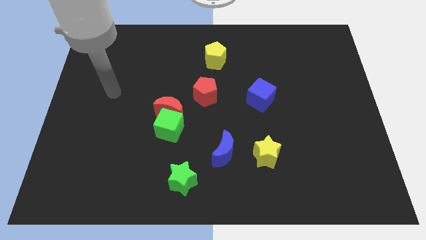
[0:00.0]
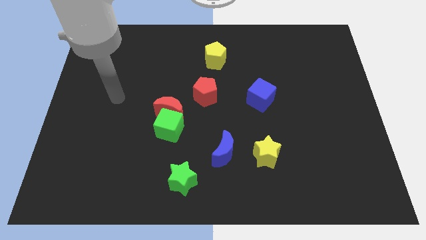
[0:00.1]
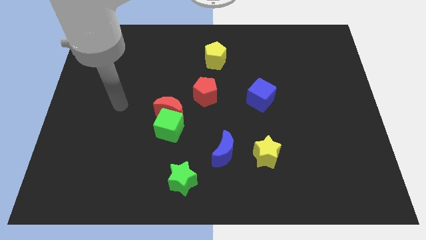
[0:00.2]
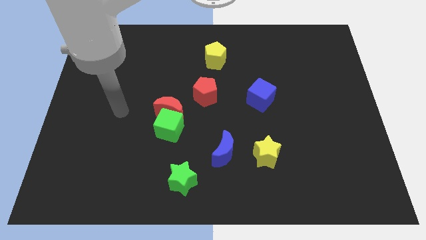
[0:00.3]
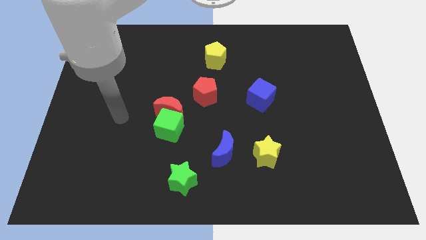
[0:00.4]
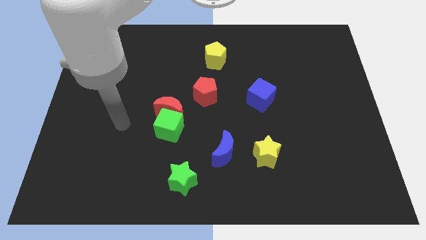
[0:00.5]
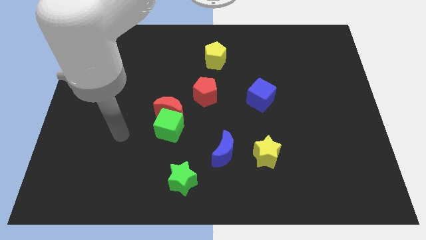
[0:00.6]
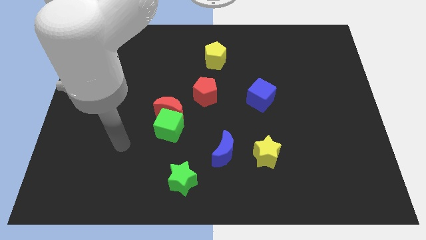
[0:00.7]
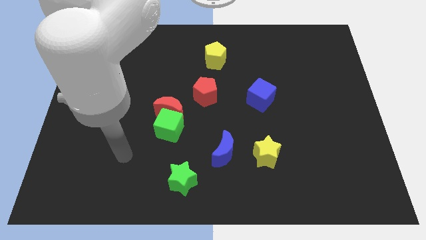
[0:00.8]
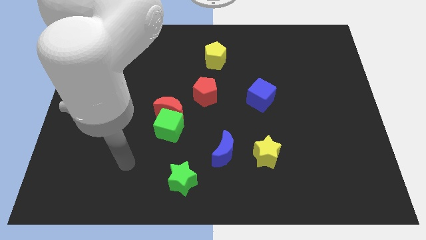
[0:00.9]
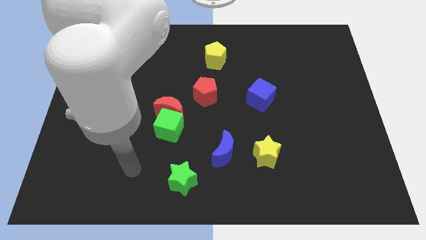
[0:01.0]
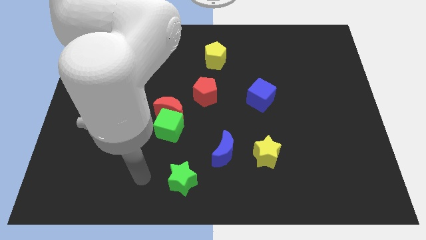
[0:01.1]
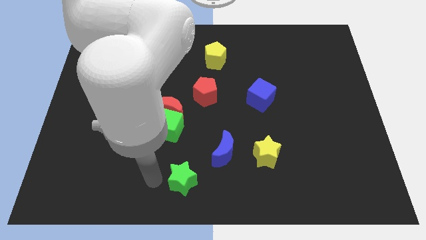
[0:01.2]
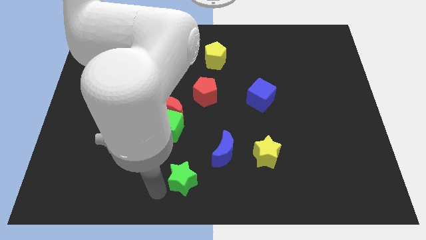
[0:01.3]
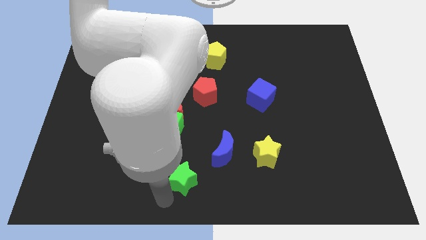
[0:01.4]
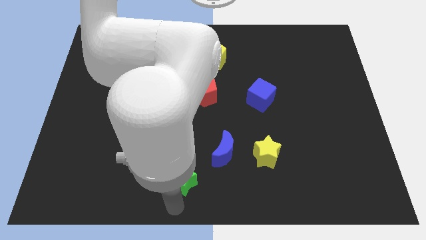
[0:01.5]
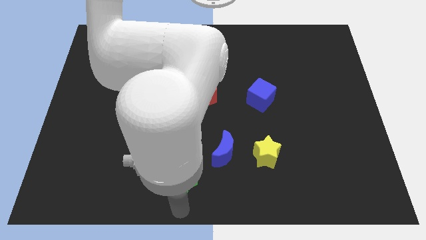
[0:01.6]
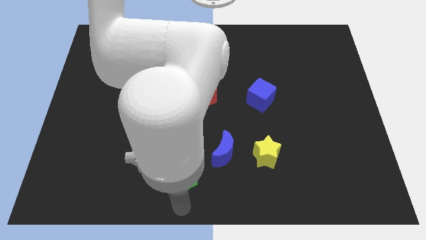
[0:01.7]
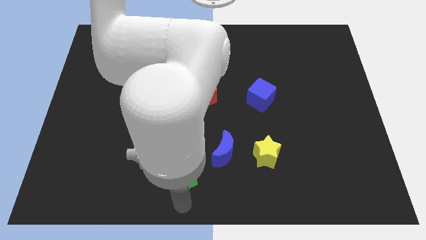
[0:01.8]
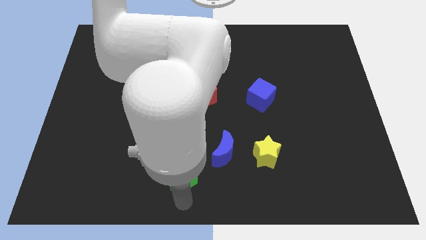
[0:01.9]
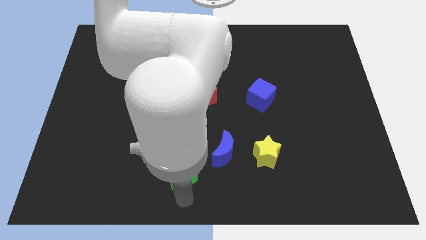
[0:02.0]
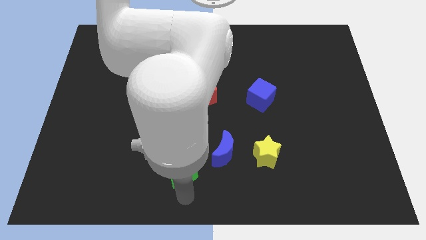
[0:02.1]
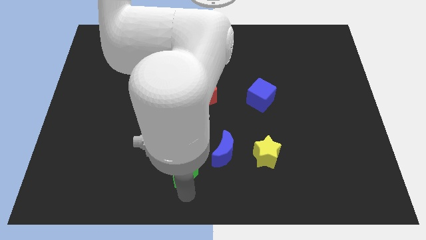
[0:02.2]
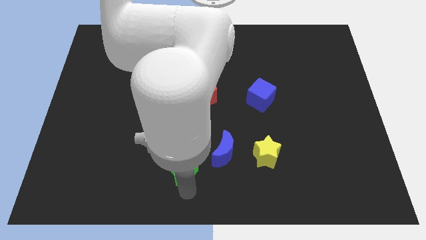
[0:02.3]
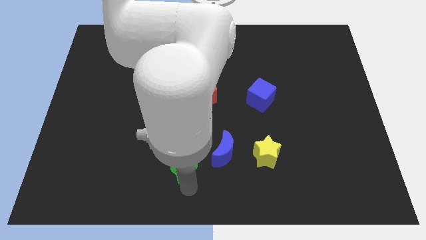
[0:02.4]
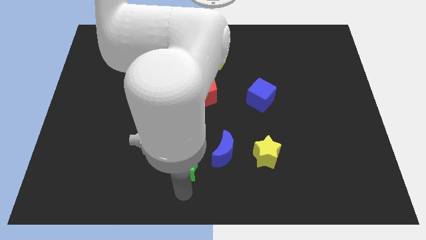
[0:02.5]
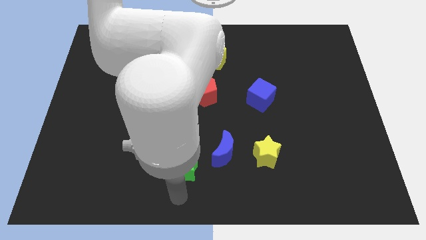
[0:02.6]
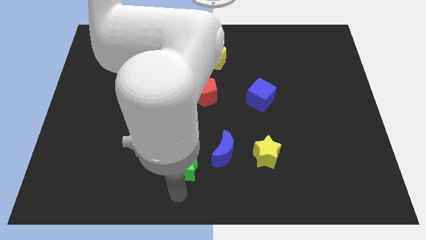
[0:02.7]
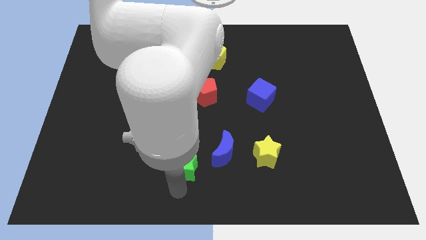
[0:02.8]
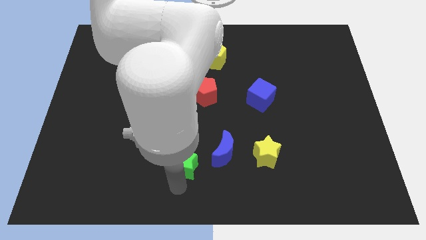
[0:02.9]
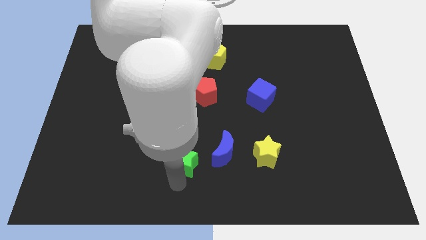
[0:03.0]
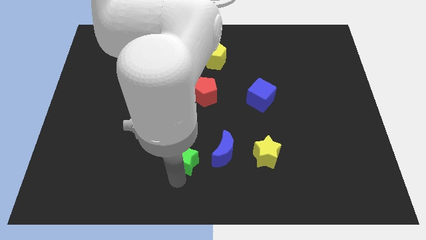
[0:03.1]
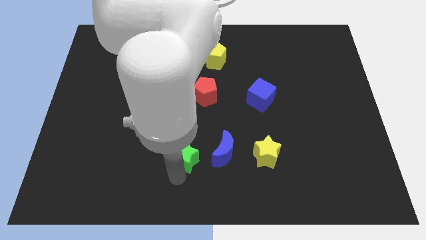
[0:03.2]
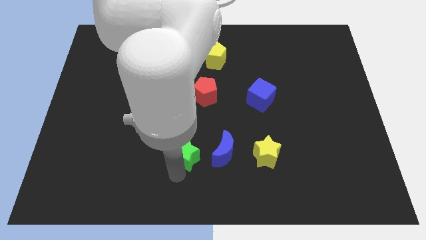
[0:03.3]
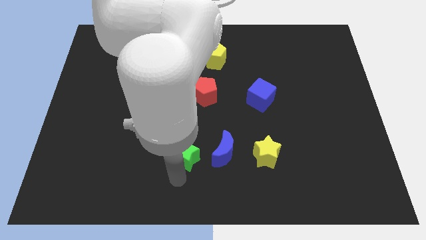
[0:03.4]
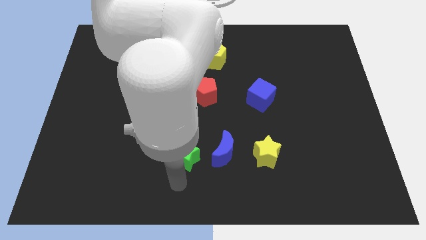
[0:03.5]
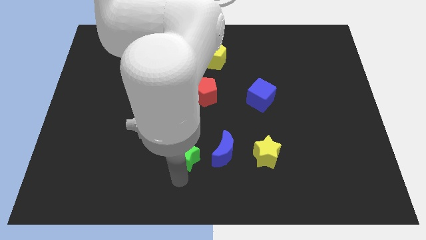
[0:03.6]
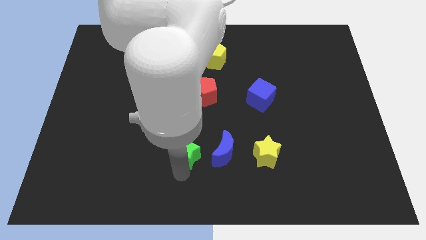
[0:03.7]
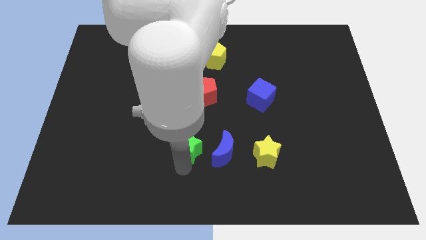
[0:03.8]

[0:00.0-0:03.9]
slightly push the green star upwards

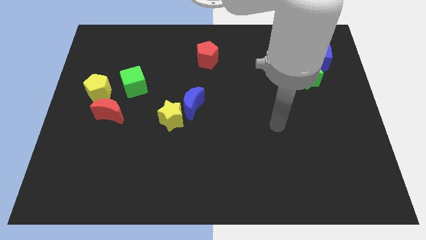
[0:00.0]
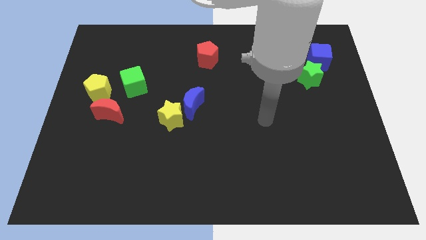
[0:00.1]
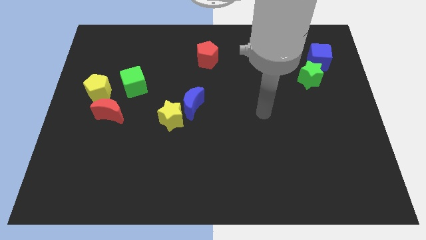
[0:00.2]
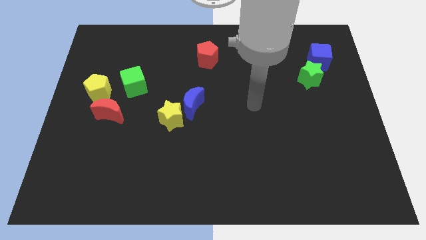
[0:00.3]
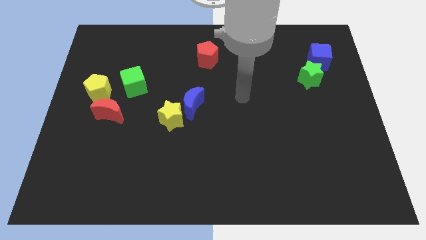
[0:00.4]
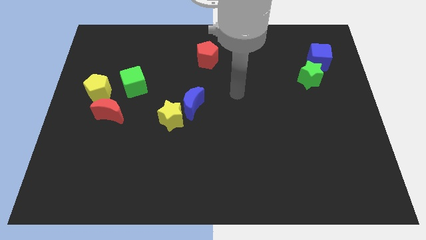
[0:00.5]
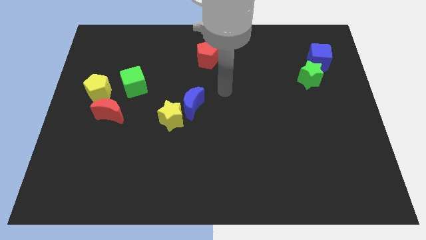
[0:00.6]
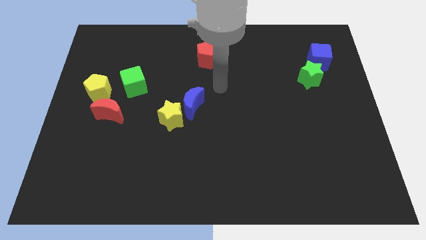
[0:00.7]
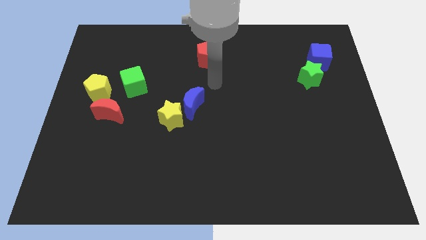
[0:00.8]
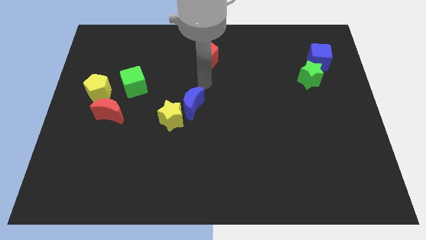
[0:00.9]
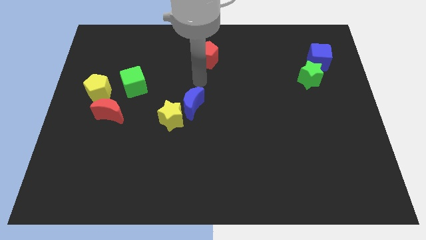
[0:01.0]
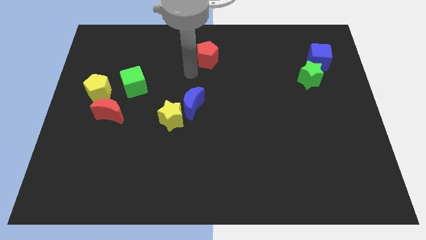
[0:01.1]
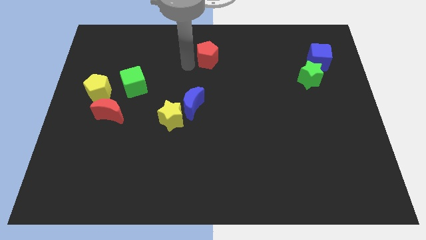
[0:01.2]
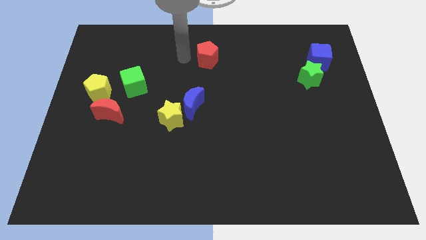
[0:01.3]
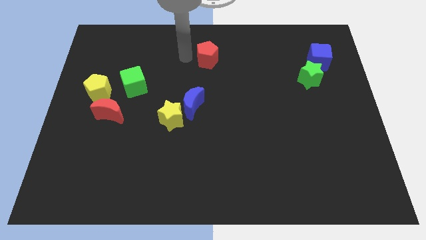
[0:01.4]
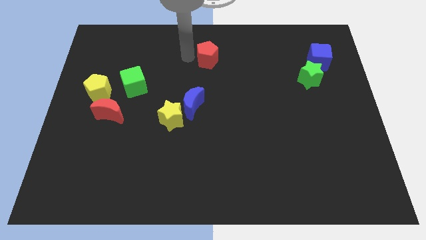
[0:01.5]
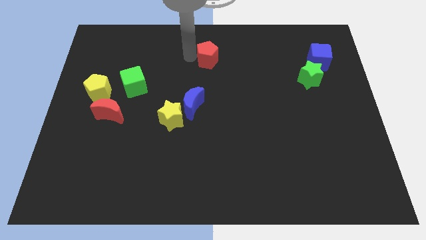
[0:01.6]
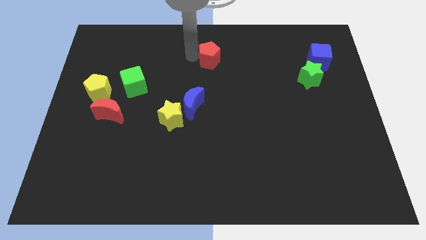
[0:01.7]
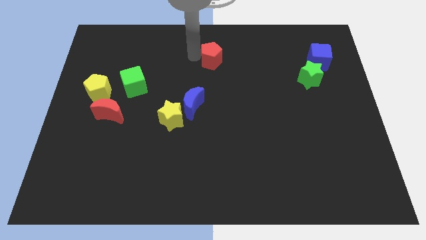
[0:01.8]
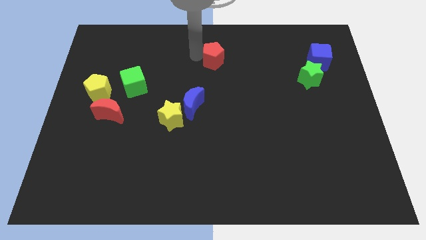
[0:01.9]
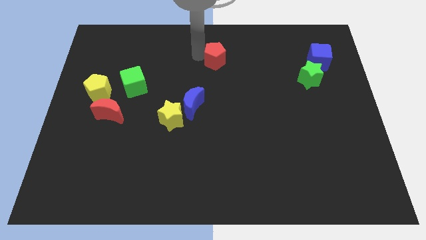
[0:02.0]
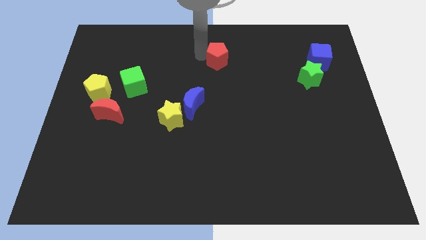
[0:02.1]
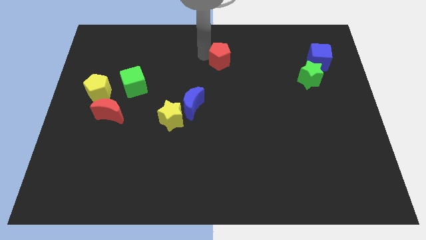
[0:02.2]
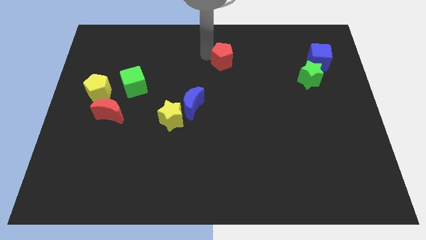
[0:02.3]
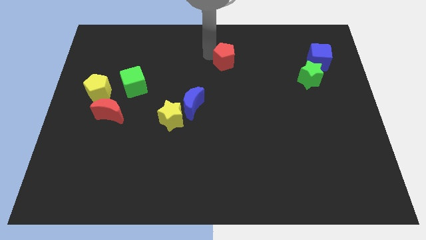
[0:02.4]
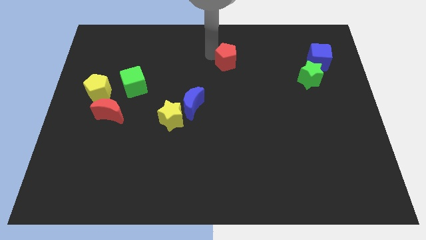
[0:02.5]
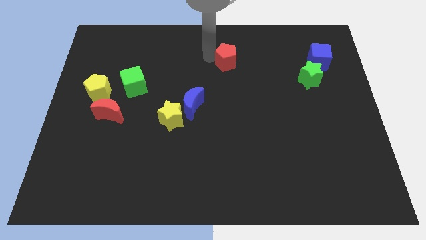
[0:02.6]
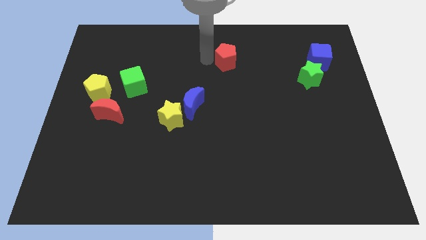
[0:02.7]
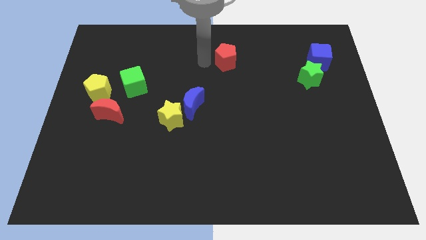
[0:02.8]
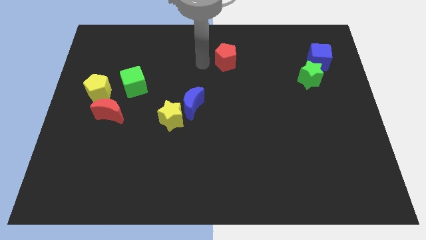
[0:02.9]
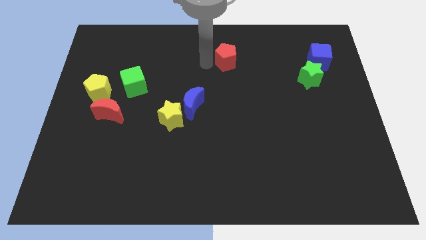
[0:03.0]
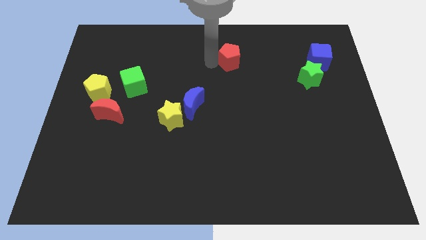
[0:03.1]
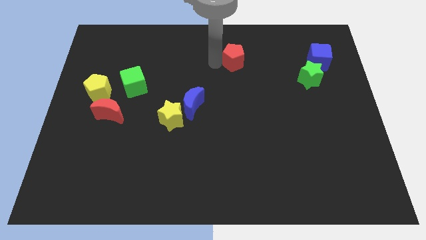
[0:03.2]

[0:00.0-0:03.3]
move the red pentagon slightly to the right

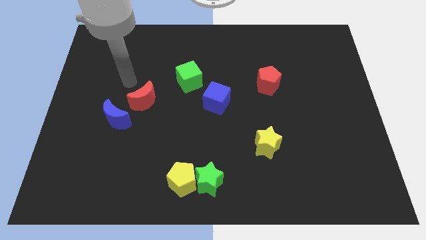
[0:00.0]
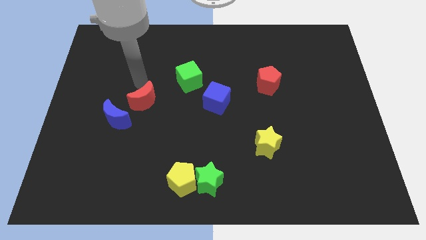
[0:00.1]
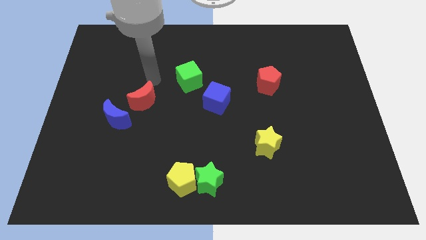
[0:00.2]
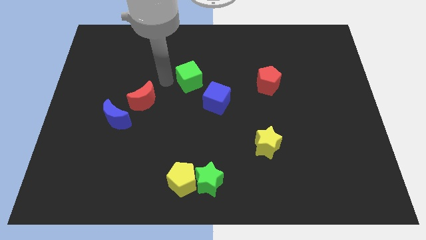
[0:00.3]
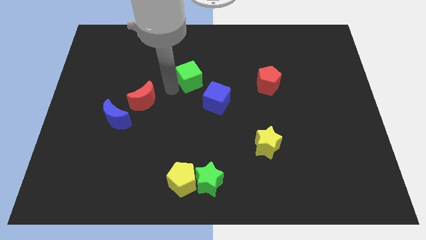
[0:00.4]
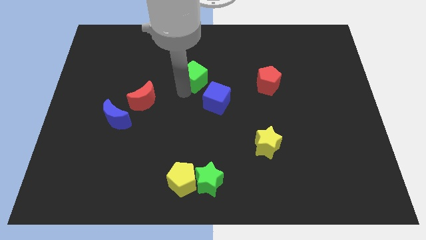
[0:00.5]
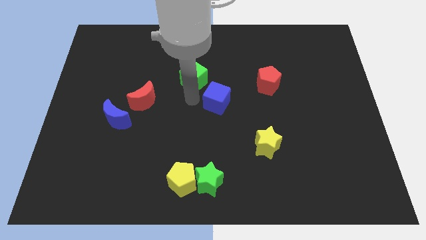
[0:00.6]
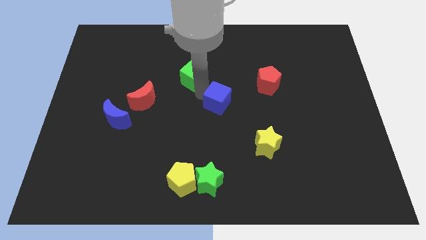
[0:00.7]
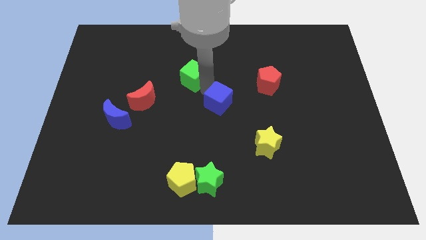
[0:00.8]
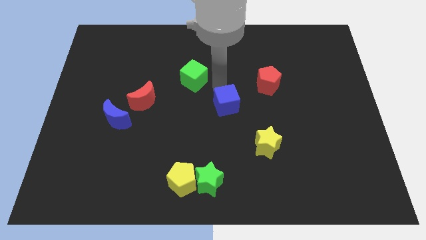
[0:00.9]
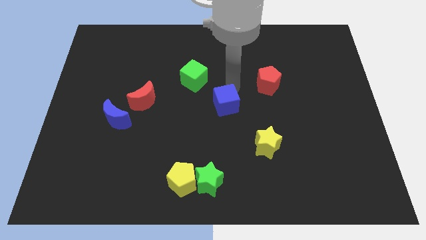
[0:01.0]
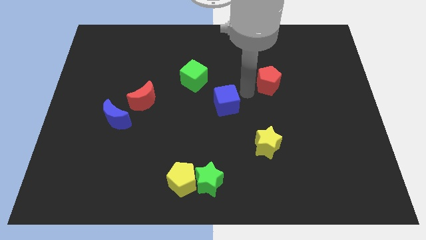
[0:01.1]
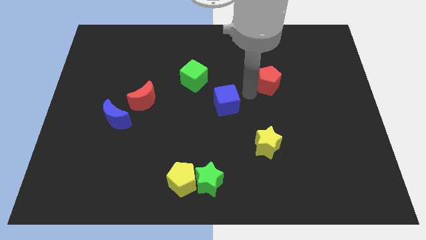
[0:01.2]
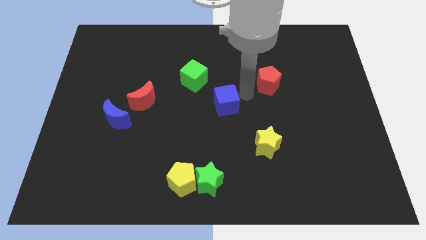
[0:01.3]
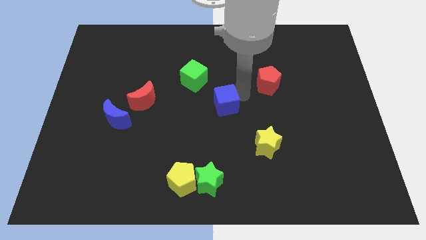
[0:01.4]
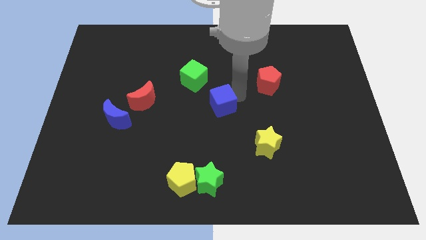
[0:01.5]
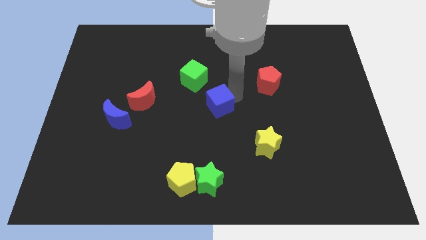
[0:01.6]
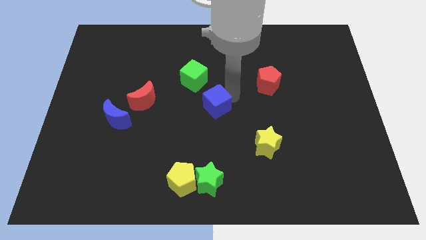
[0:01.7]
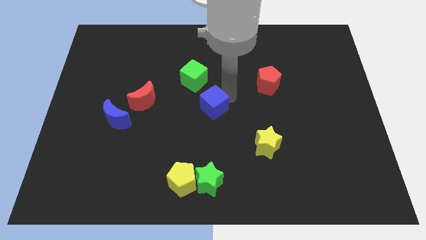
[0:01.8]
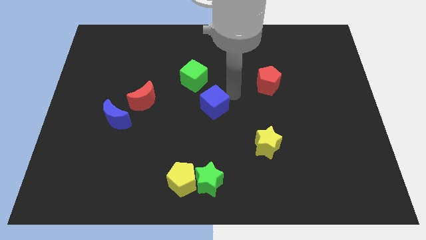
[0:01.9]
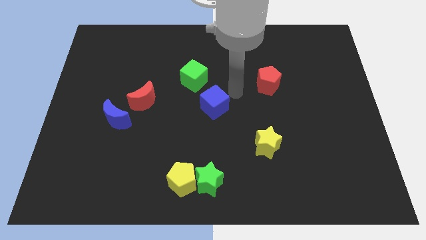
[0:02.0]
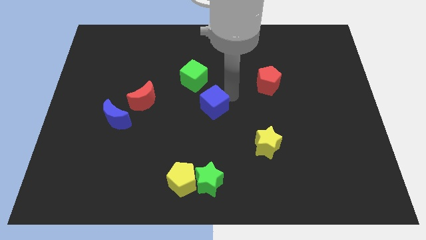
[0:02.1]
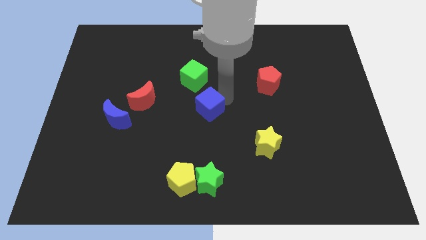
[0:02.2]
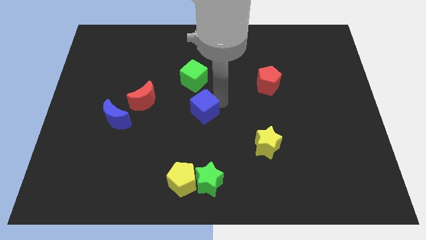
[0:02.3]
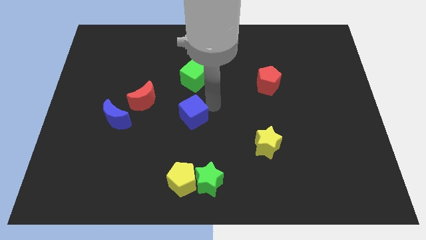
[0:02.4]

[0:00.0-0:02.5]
move the blue cube somewhat diagonally downwards and to the left
